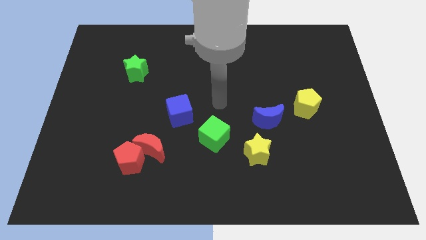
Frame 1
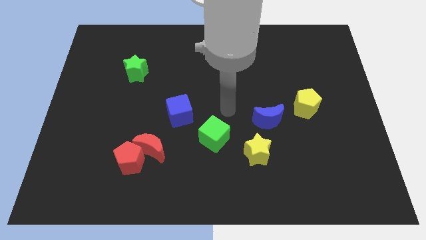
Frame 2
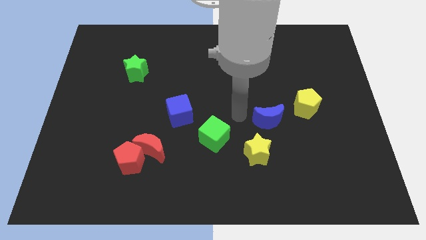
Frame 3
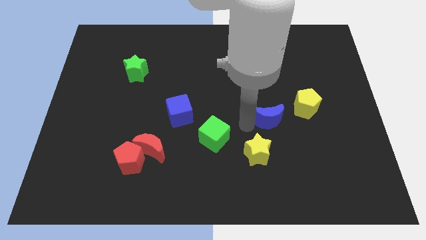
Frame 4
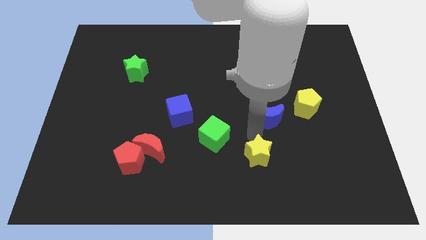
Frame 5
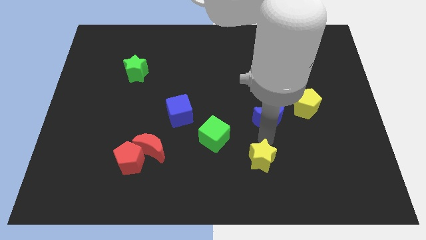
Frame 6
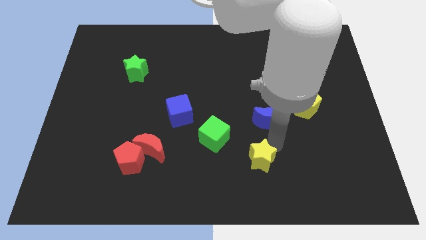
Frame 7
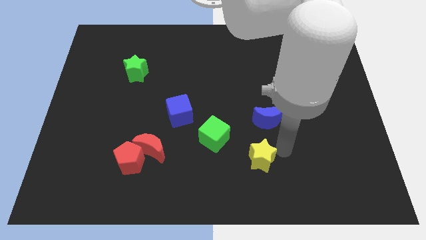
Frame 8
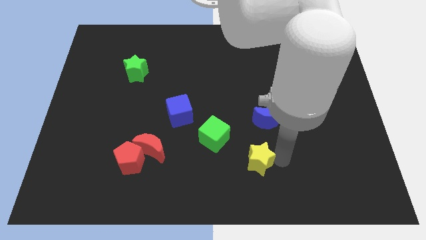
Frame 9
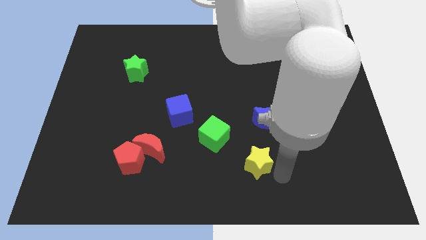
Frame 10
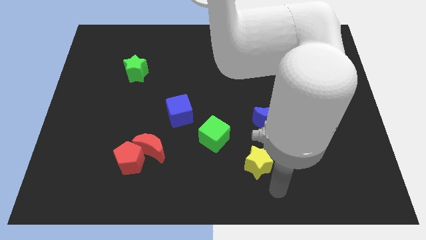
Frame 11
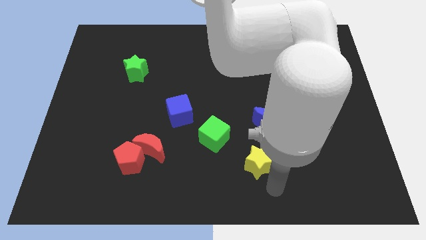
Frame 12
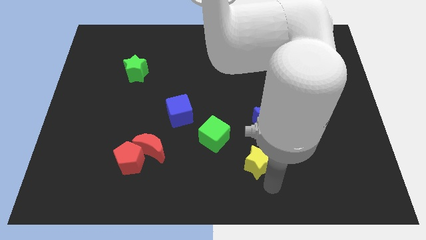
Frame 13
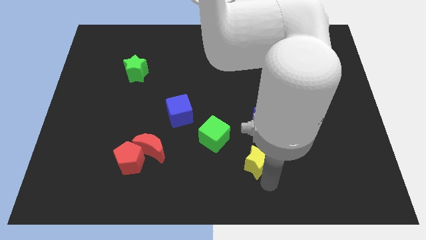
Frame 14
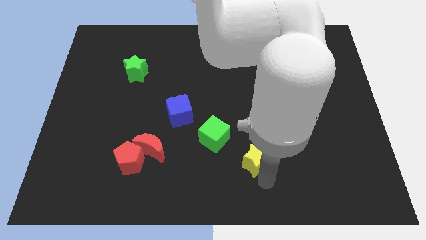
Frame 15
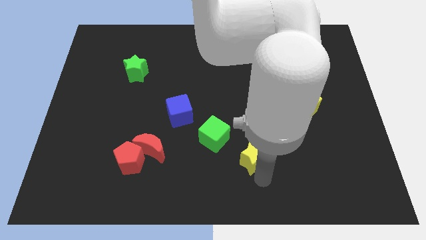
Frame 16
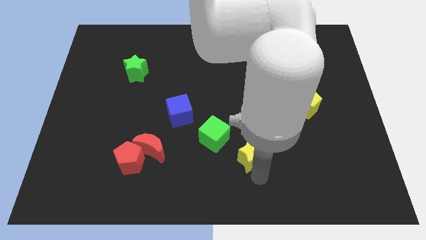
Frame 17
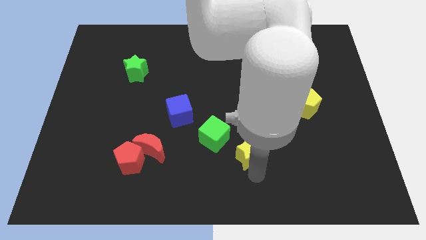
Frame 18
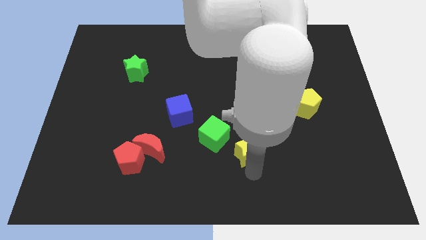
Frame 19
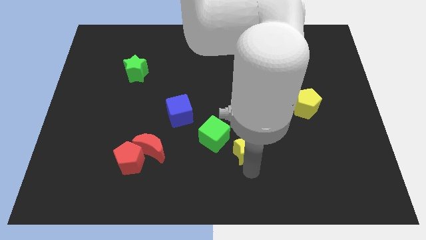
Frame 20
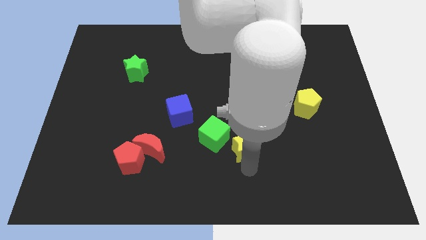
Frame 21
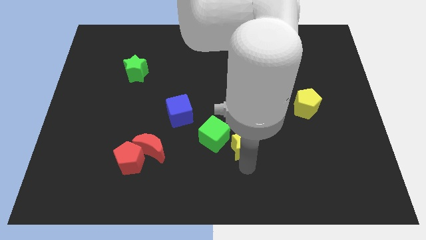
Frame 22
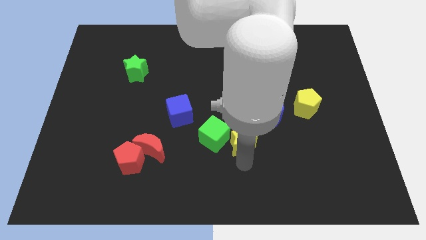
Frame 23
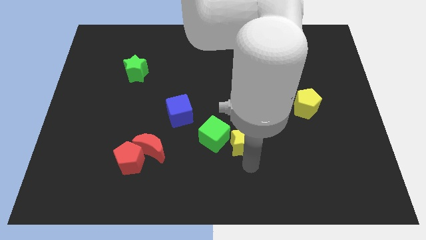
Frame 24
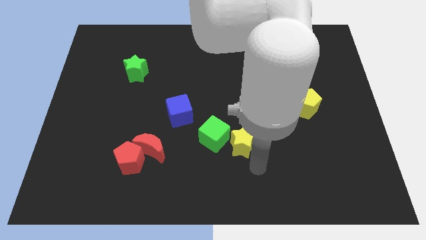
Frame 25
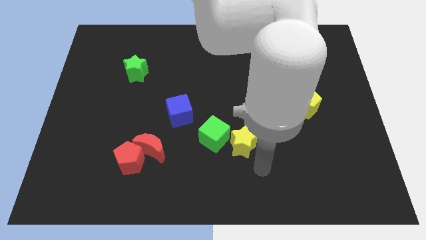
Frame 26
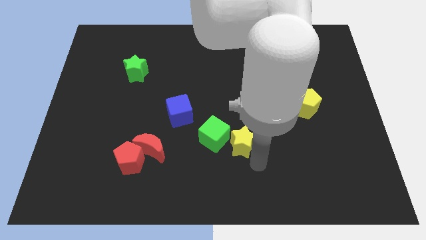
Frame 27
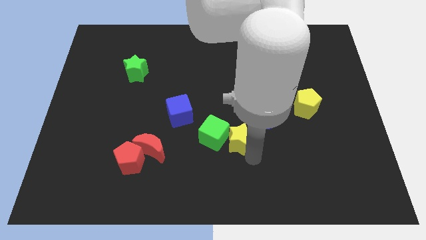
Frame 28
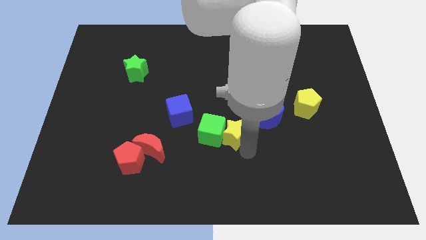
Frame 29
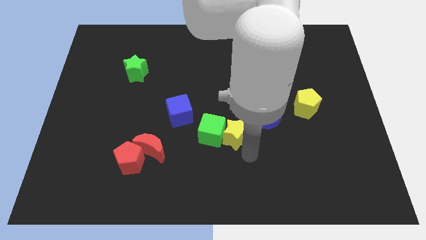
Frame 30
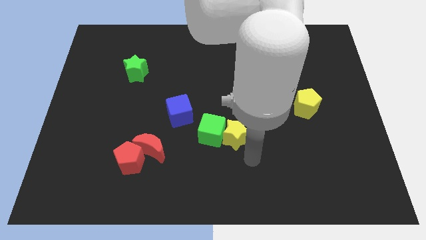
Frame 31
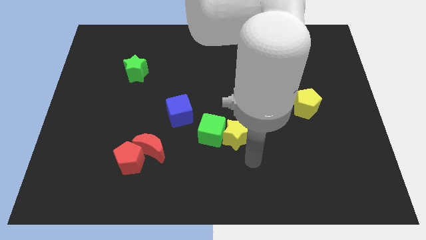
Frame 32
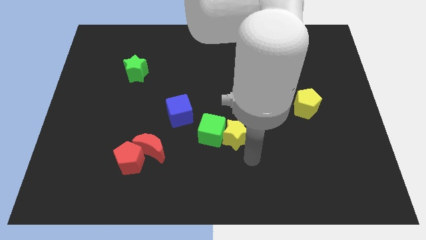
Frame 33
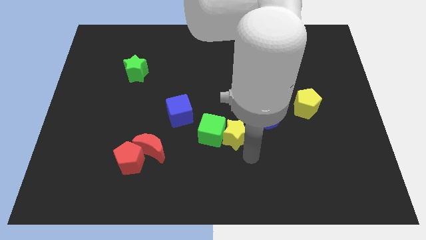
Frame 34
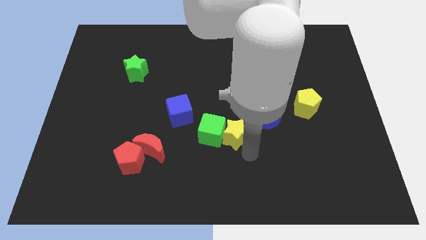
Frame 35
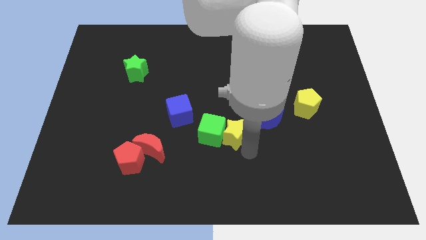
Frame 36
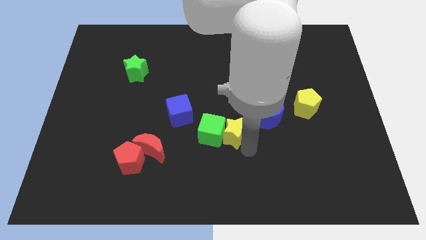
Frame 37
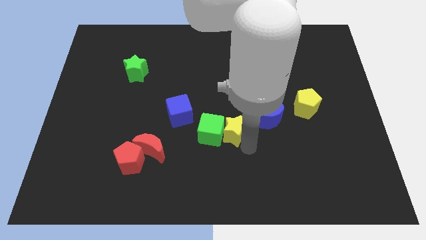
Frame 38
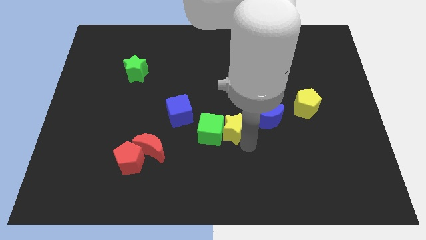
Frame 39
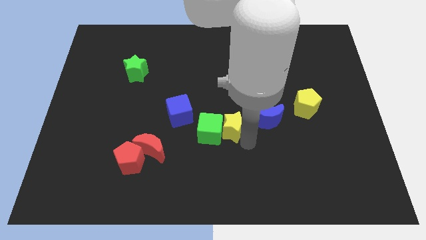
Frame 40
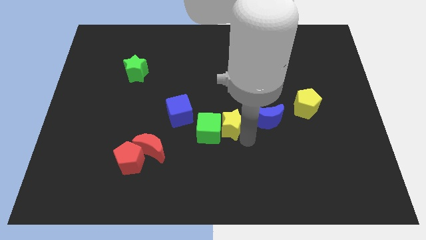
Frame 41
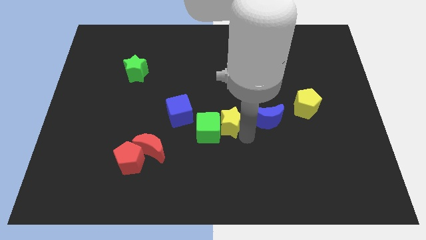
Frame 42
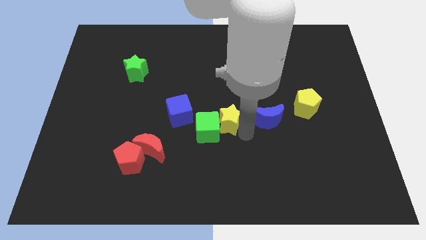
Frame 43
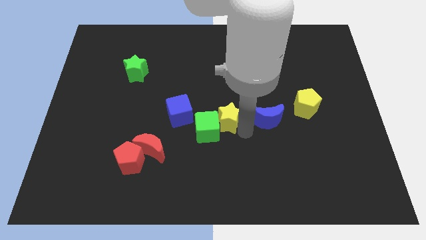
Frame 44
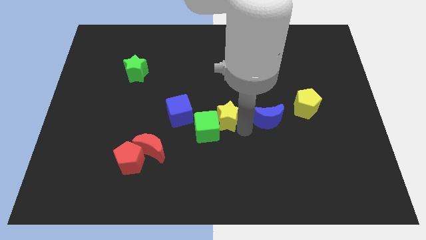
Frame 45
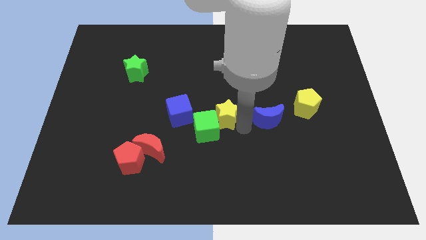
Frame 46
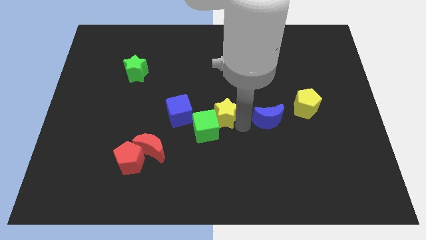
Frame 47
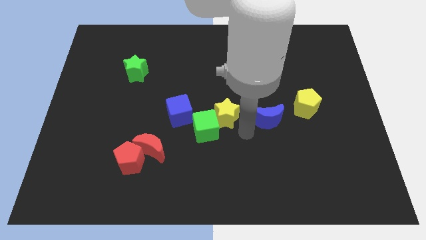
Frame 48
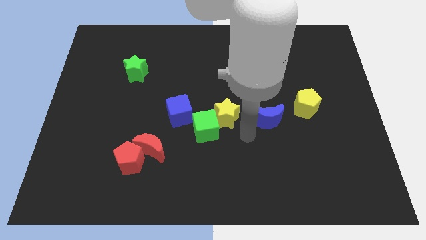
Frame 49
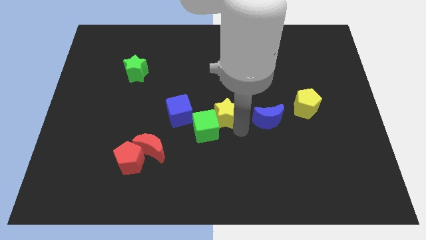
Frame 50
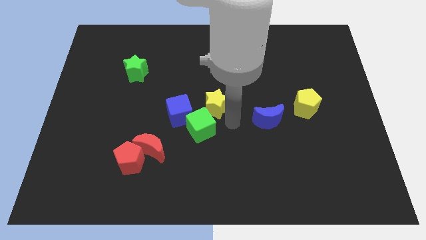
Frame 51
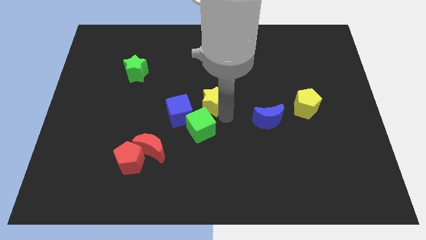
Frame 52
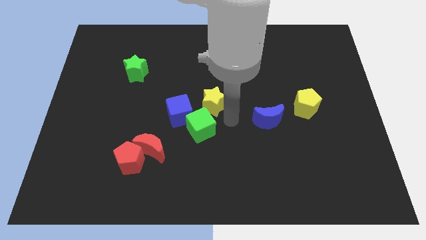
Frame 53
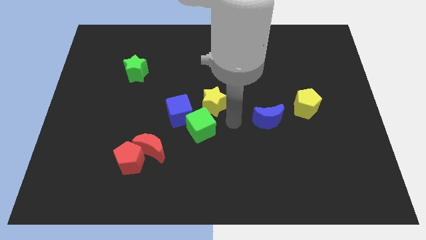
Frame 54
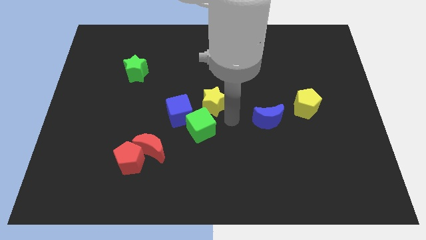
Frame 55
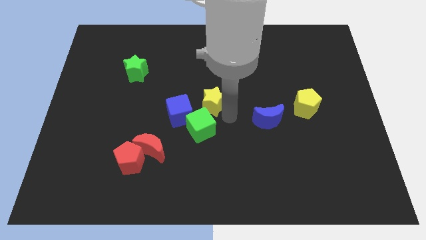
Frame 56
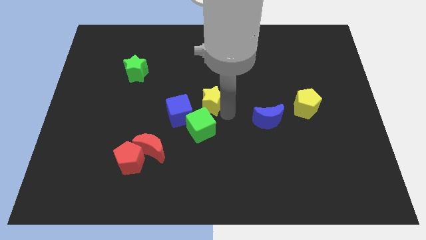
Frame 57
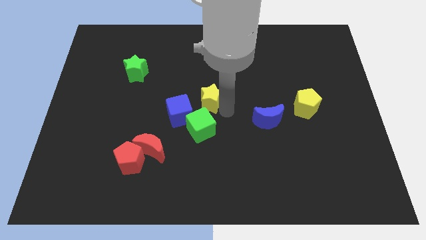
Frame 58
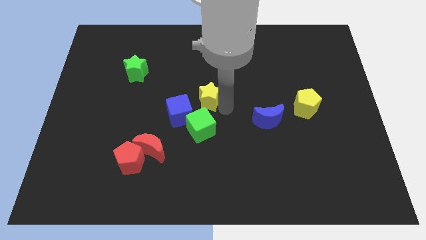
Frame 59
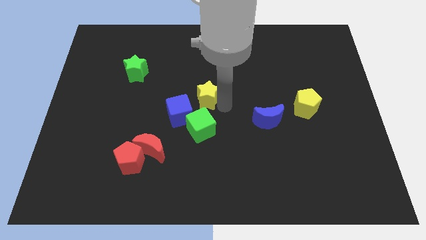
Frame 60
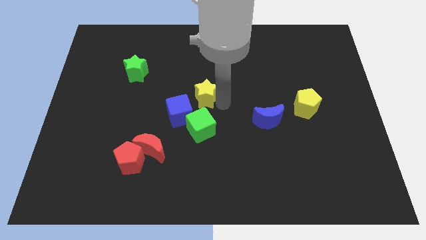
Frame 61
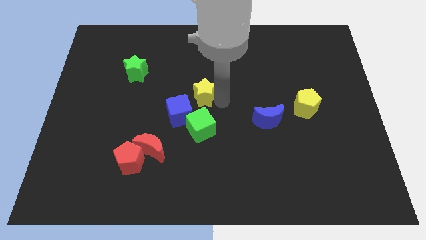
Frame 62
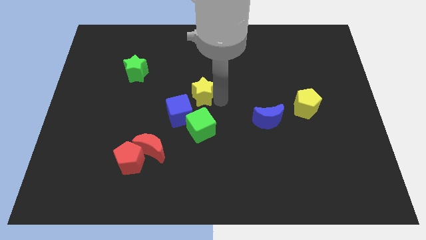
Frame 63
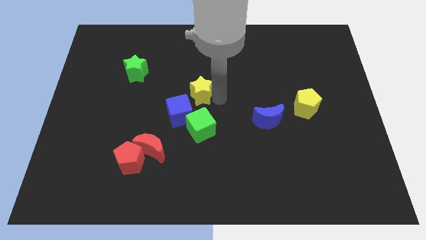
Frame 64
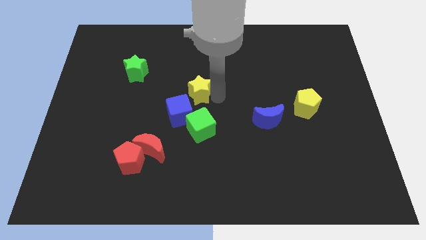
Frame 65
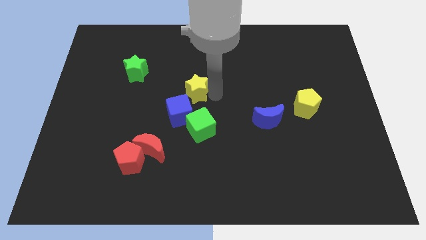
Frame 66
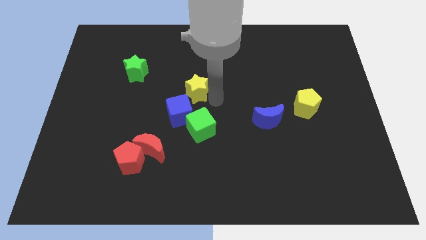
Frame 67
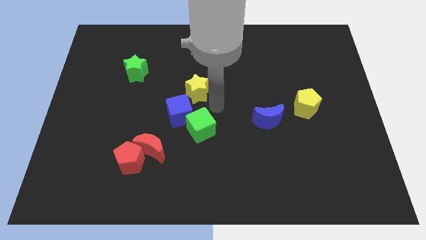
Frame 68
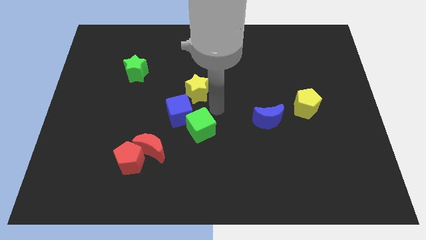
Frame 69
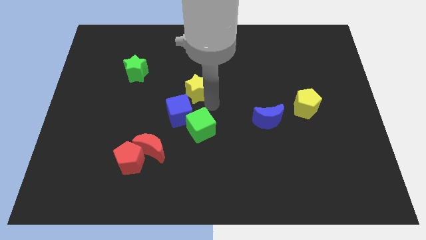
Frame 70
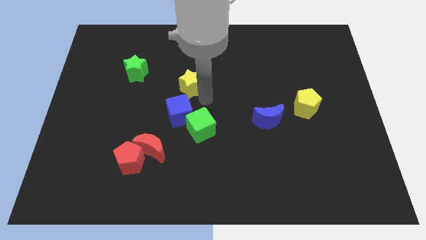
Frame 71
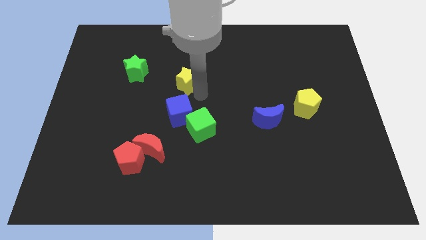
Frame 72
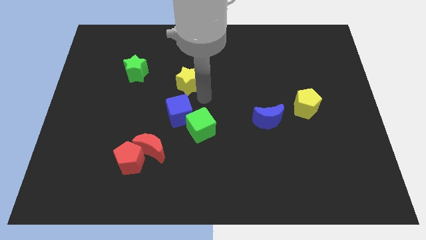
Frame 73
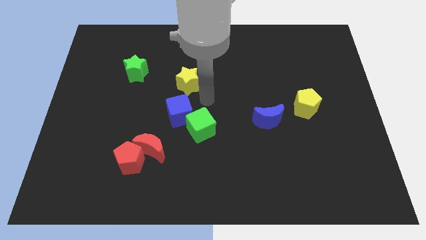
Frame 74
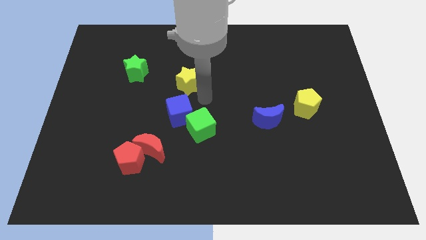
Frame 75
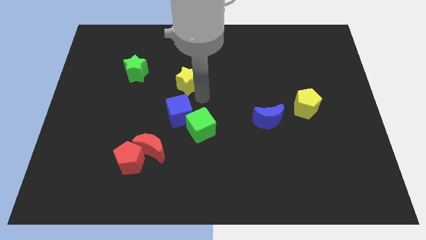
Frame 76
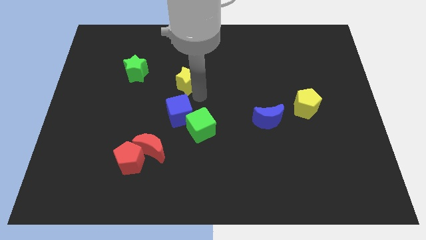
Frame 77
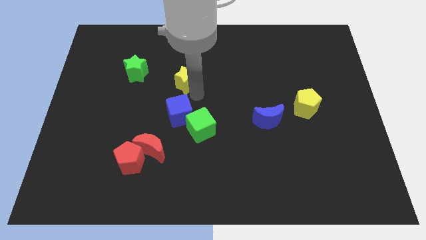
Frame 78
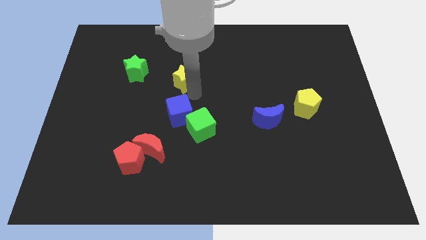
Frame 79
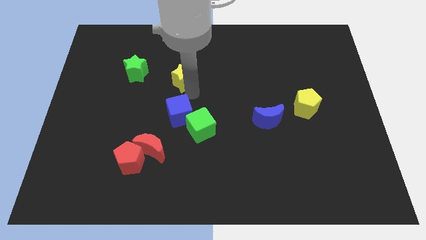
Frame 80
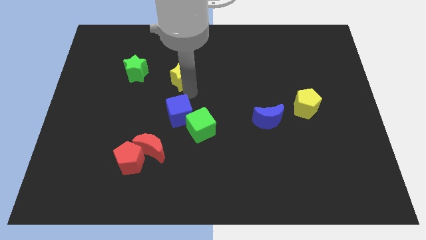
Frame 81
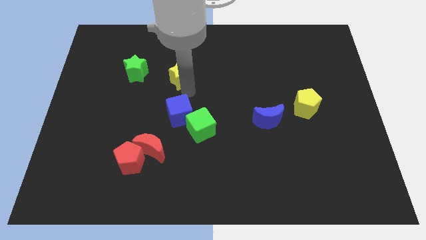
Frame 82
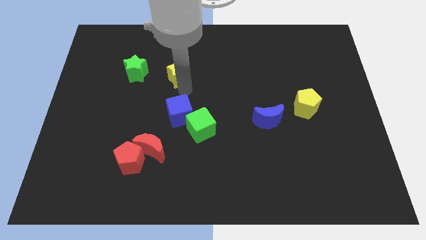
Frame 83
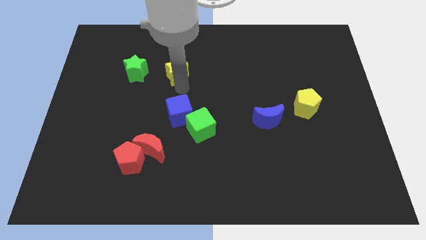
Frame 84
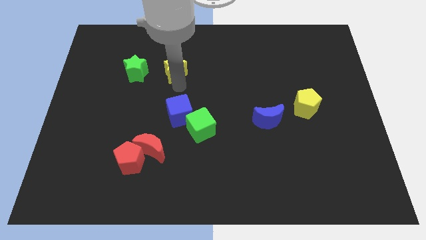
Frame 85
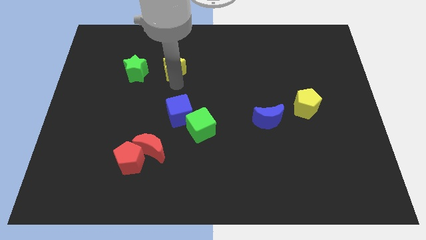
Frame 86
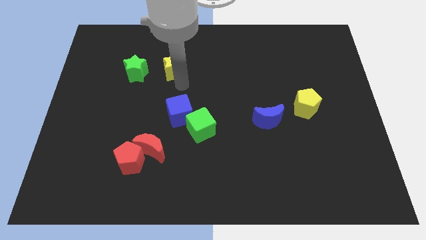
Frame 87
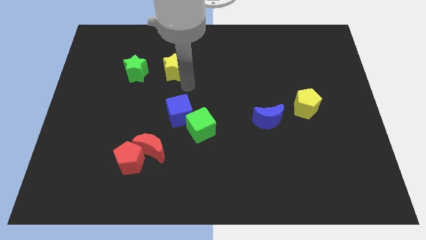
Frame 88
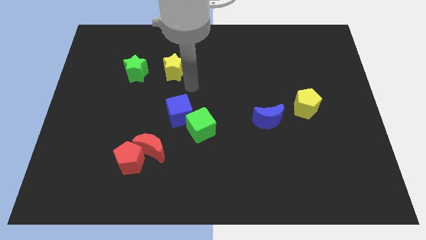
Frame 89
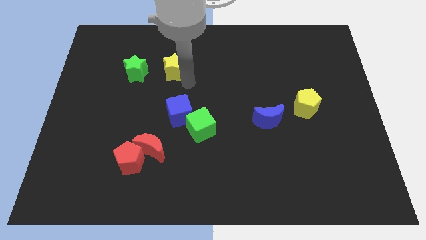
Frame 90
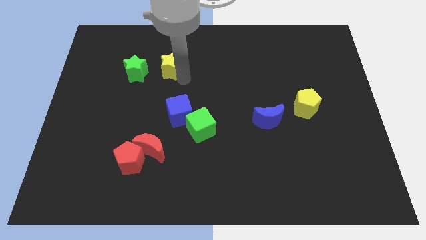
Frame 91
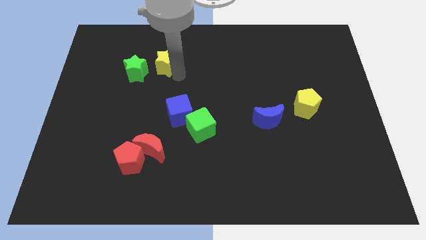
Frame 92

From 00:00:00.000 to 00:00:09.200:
slide the yellow star to the top right side of the green star
